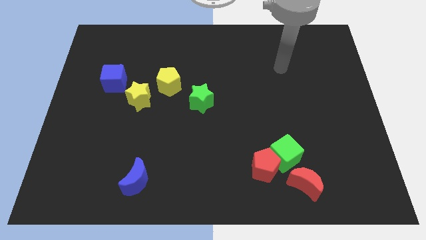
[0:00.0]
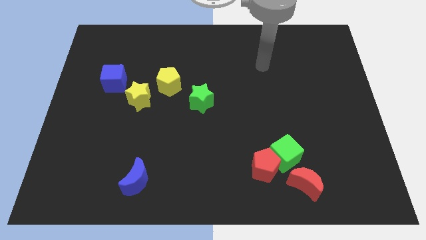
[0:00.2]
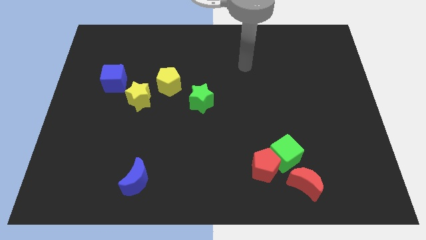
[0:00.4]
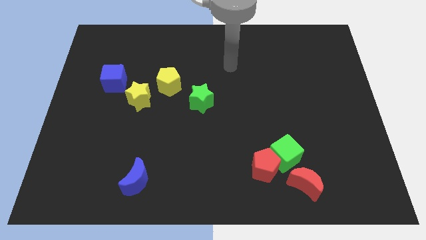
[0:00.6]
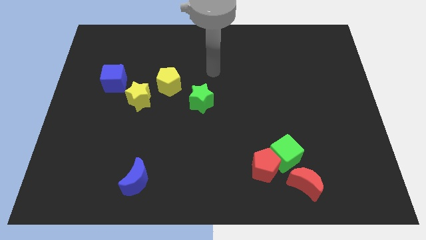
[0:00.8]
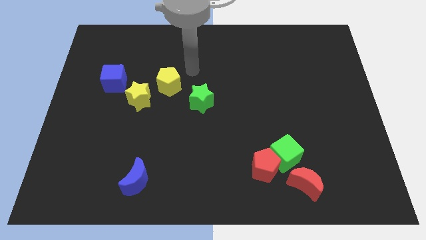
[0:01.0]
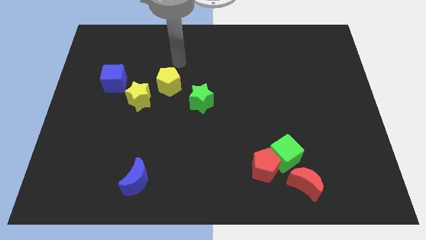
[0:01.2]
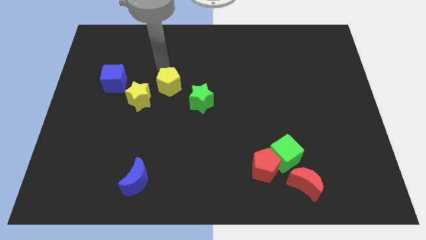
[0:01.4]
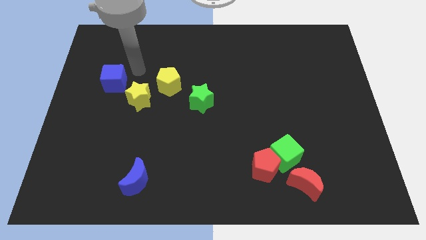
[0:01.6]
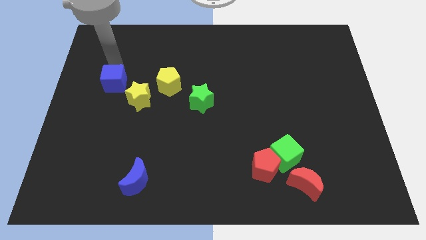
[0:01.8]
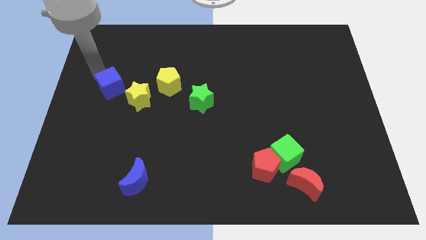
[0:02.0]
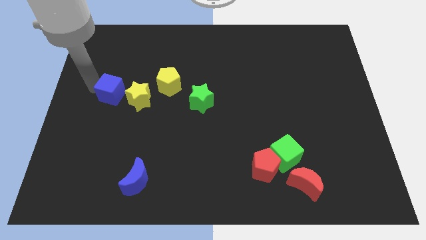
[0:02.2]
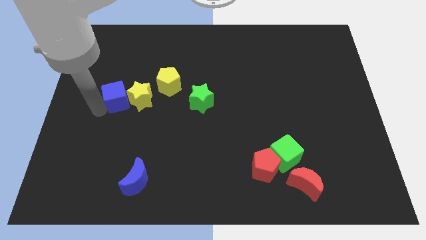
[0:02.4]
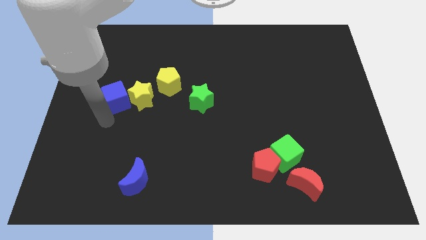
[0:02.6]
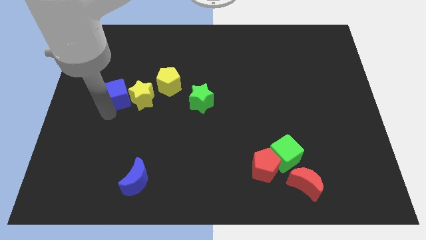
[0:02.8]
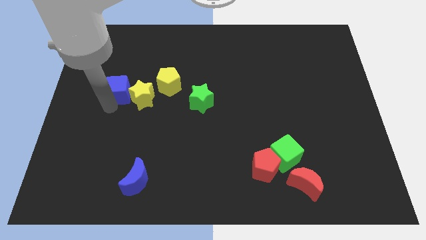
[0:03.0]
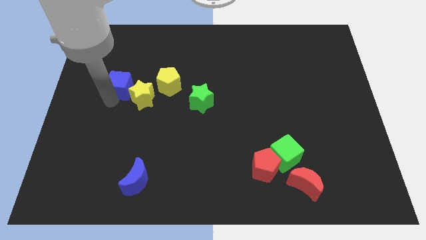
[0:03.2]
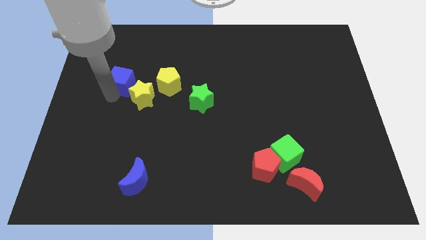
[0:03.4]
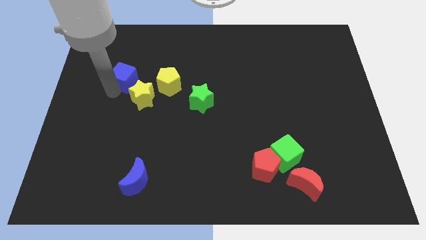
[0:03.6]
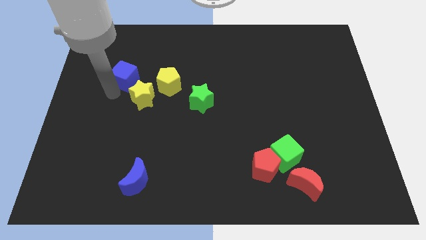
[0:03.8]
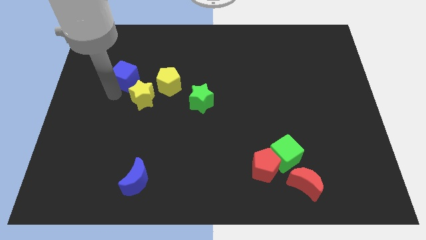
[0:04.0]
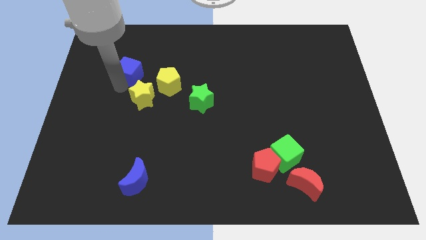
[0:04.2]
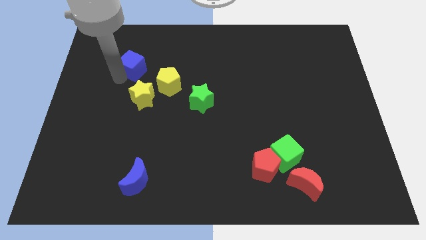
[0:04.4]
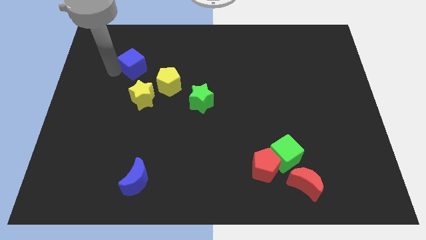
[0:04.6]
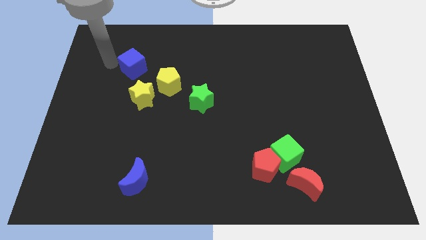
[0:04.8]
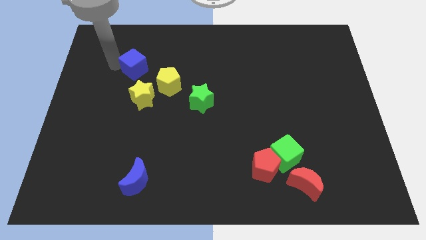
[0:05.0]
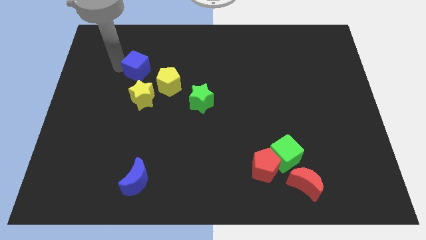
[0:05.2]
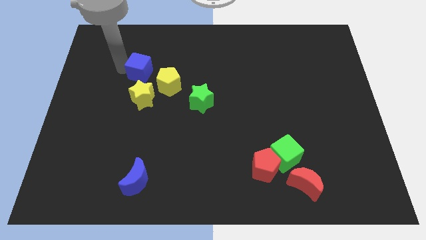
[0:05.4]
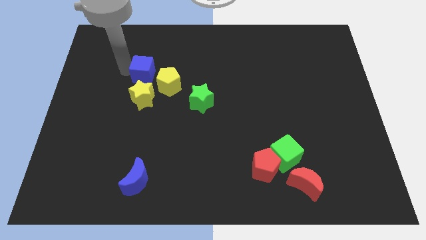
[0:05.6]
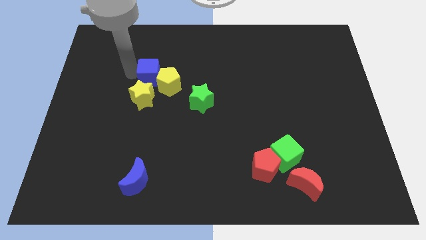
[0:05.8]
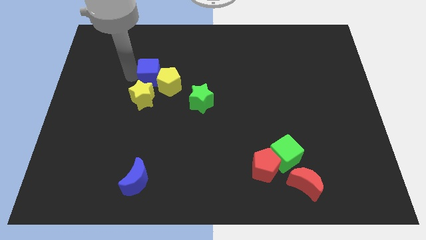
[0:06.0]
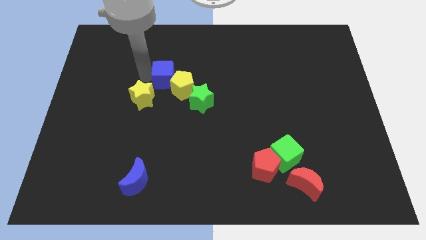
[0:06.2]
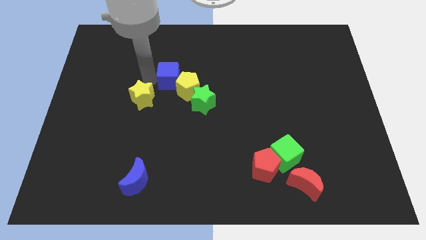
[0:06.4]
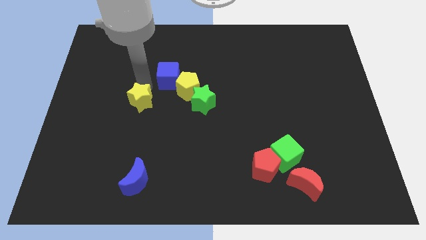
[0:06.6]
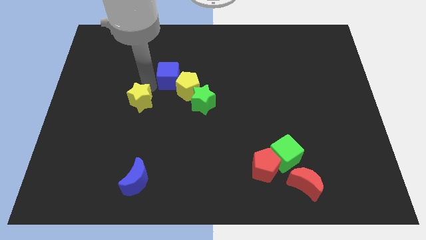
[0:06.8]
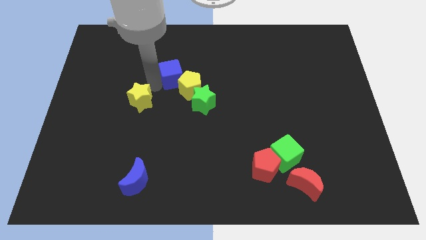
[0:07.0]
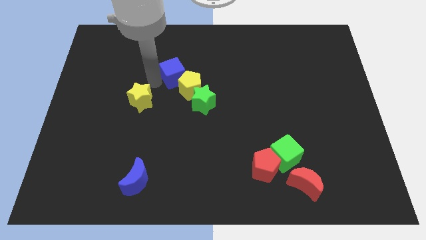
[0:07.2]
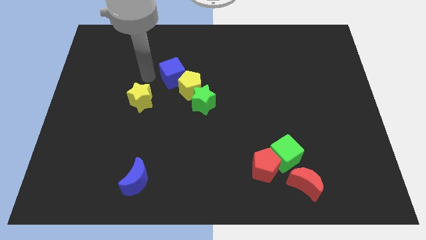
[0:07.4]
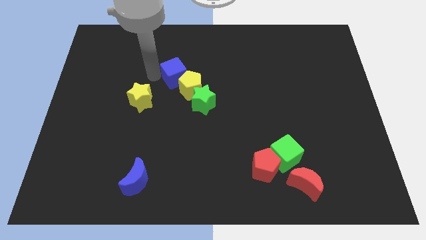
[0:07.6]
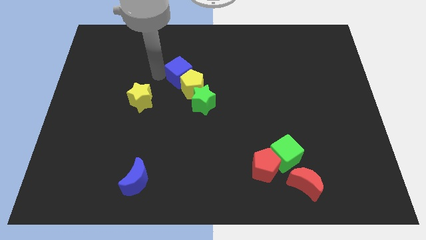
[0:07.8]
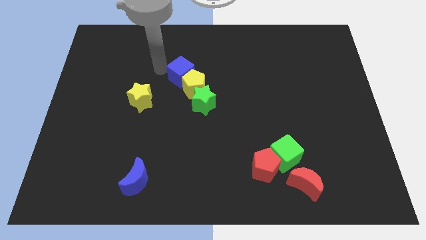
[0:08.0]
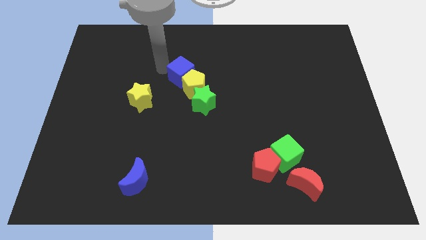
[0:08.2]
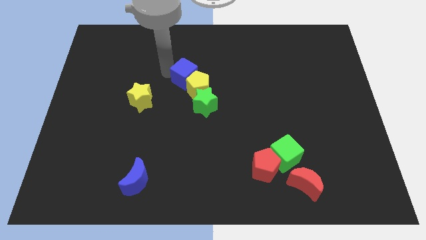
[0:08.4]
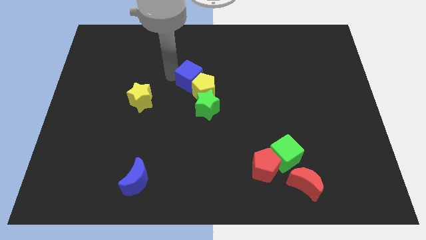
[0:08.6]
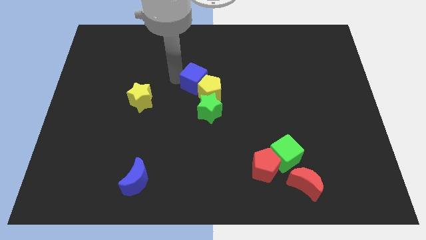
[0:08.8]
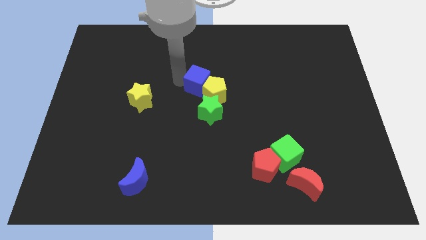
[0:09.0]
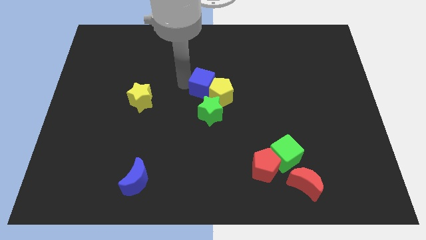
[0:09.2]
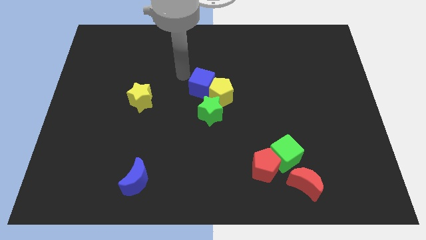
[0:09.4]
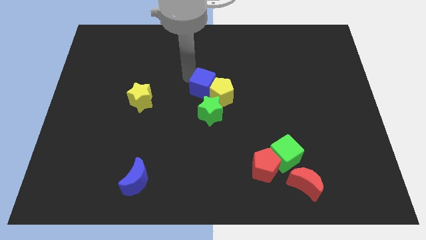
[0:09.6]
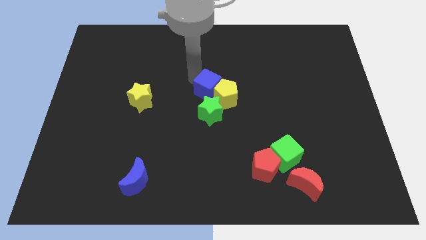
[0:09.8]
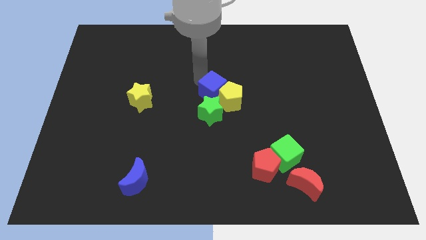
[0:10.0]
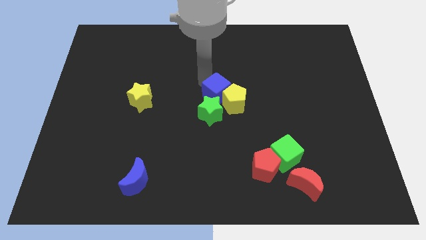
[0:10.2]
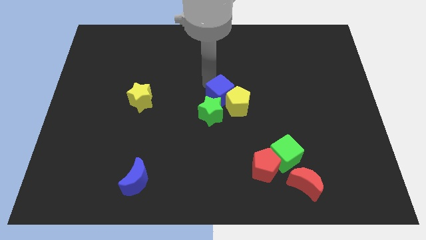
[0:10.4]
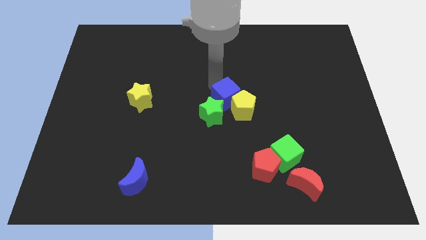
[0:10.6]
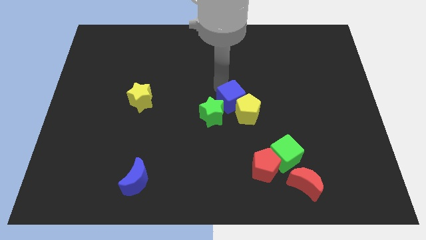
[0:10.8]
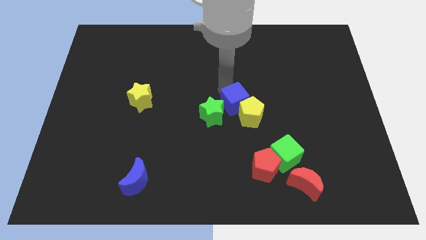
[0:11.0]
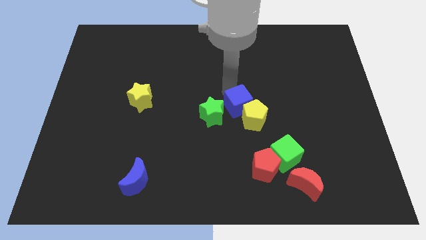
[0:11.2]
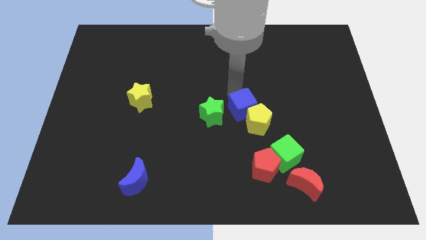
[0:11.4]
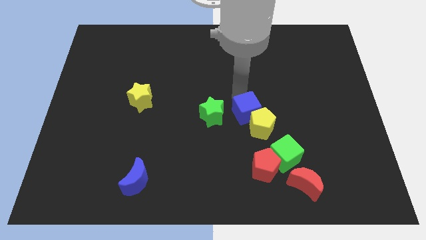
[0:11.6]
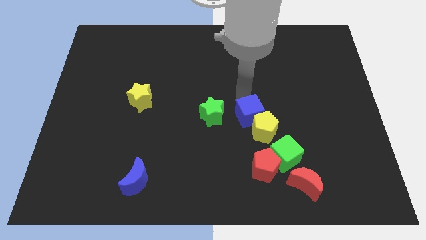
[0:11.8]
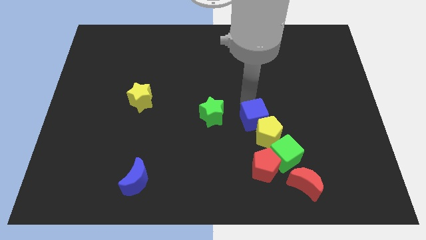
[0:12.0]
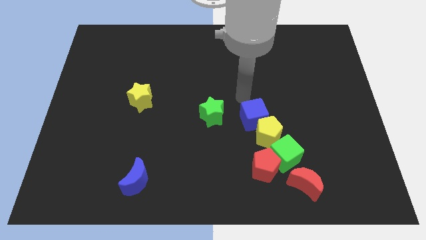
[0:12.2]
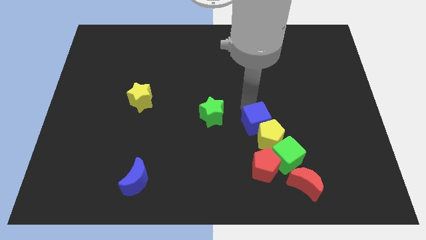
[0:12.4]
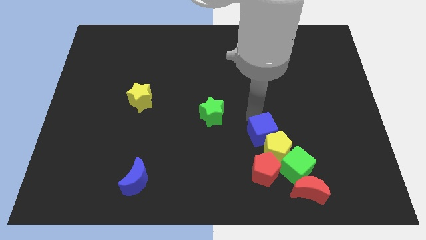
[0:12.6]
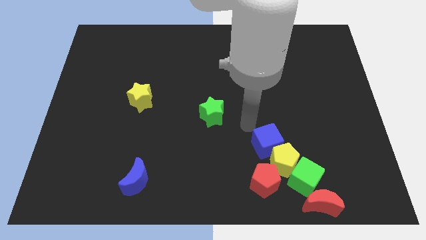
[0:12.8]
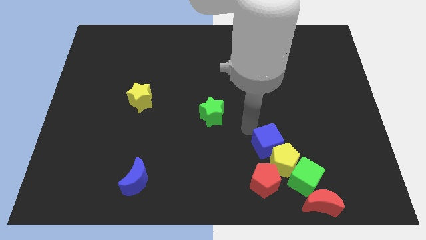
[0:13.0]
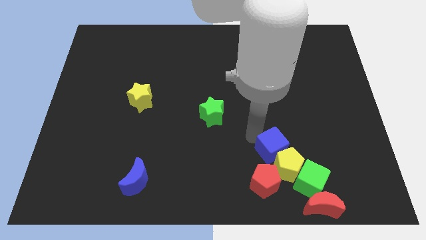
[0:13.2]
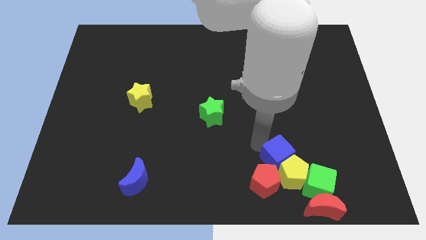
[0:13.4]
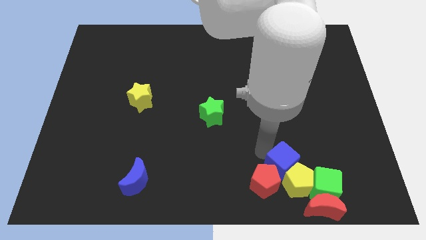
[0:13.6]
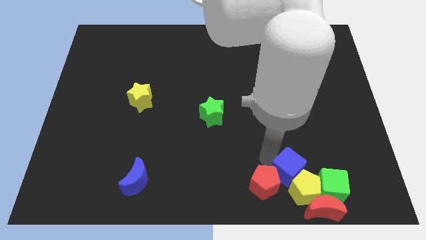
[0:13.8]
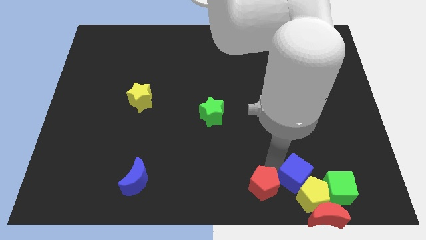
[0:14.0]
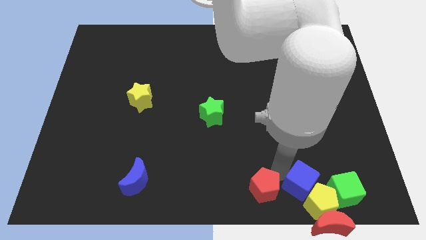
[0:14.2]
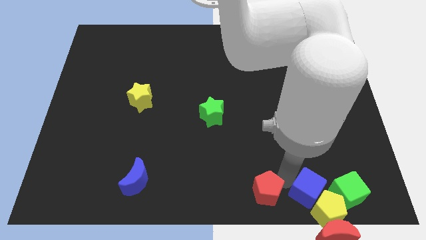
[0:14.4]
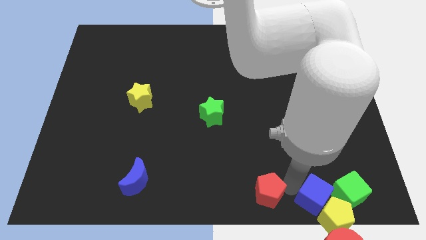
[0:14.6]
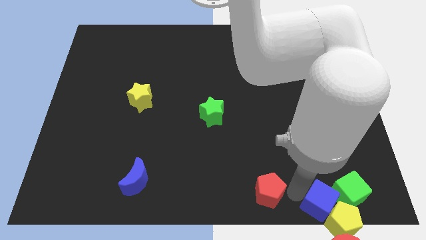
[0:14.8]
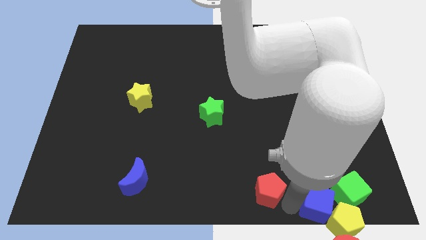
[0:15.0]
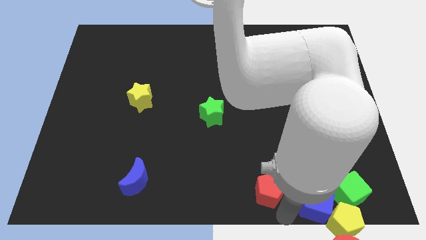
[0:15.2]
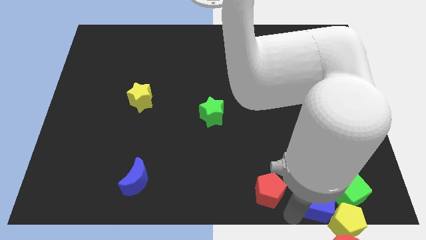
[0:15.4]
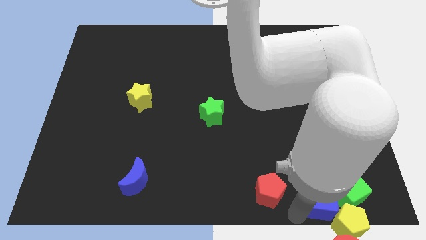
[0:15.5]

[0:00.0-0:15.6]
slide the blue cube towards the green cube
